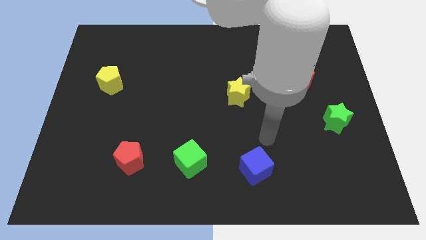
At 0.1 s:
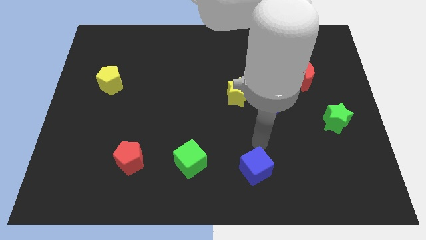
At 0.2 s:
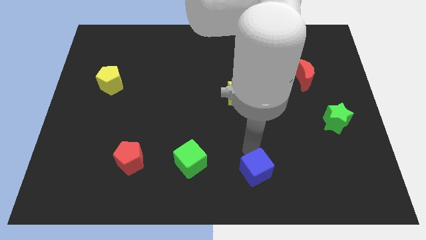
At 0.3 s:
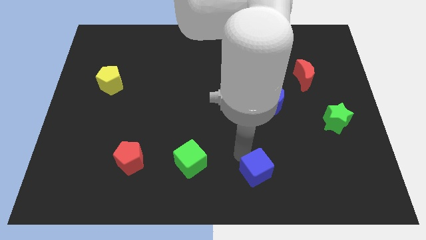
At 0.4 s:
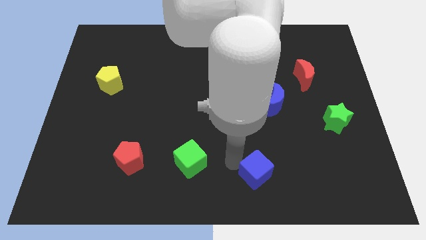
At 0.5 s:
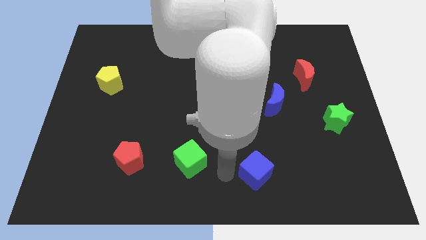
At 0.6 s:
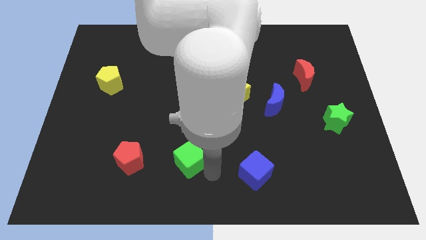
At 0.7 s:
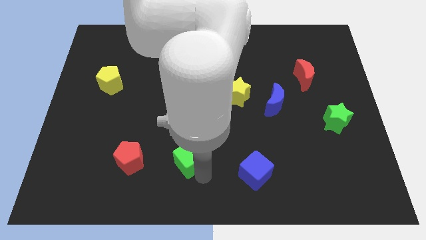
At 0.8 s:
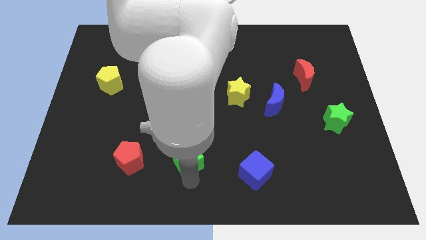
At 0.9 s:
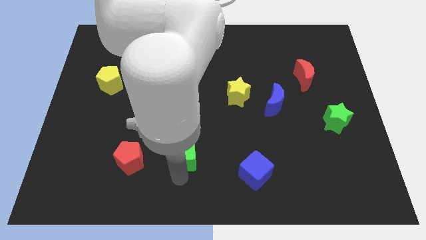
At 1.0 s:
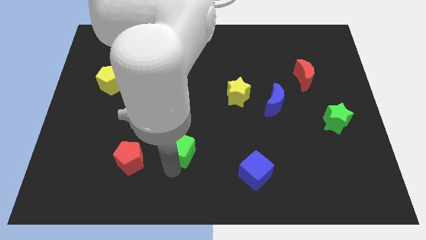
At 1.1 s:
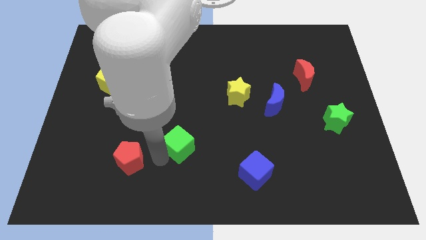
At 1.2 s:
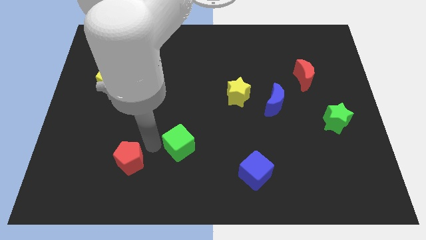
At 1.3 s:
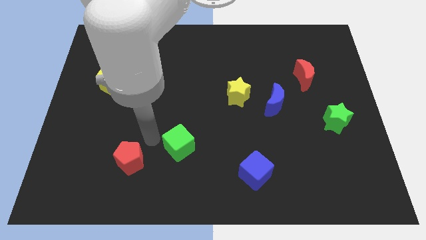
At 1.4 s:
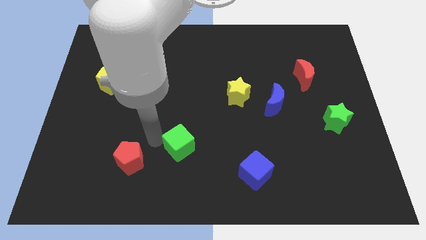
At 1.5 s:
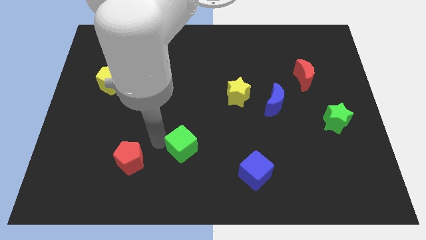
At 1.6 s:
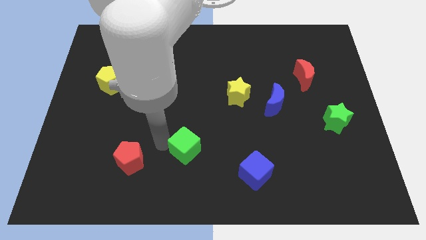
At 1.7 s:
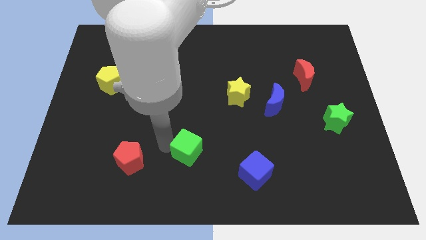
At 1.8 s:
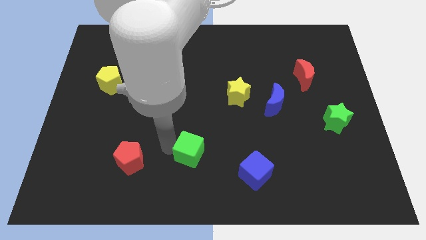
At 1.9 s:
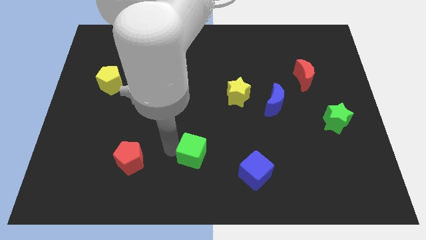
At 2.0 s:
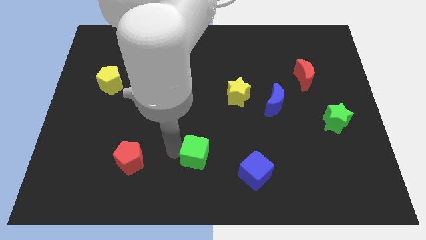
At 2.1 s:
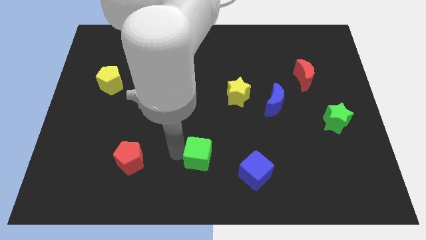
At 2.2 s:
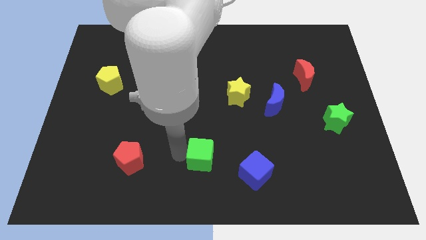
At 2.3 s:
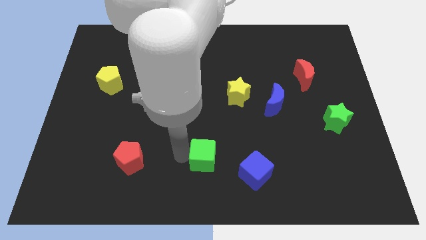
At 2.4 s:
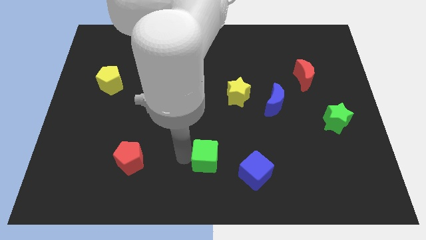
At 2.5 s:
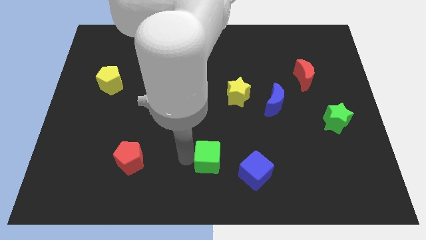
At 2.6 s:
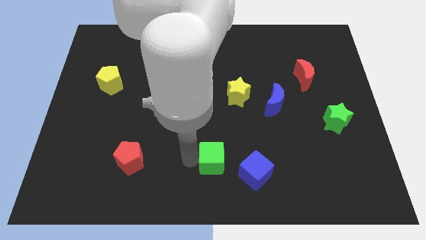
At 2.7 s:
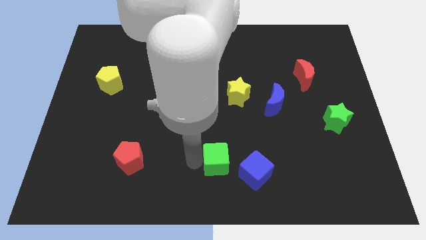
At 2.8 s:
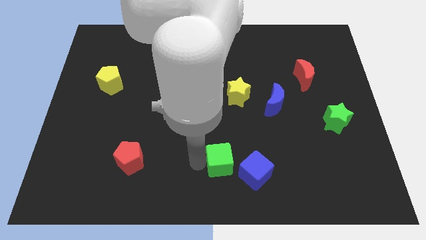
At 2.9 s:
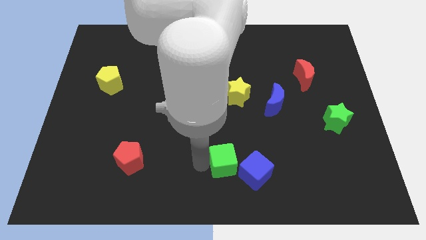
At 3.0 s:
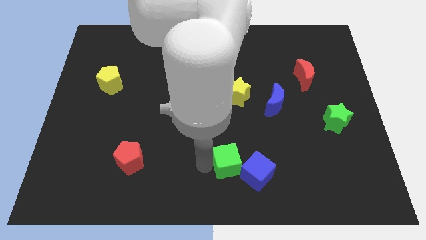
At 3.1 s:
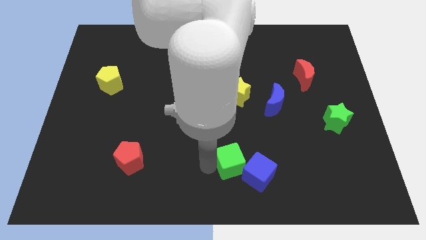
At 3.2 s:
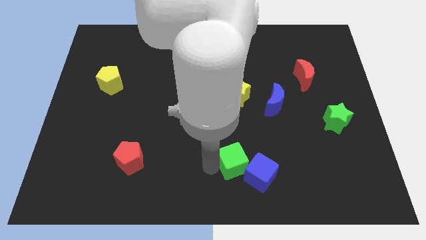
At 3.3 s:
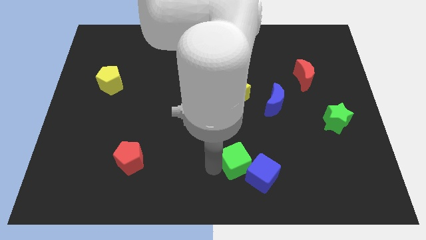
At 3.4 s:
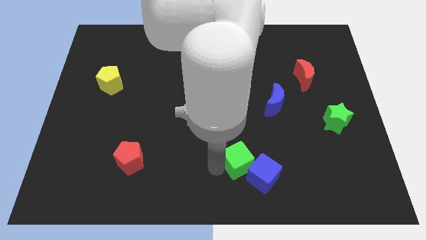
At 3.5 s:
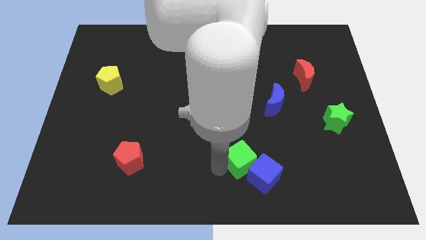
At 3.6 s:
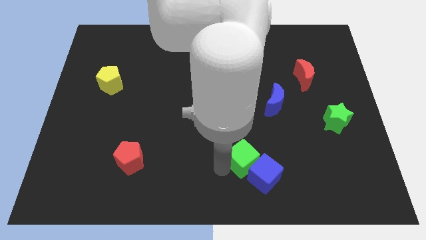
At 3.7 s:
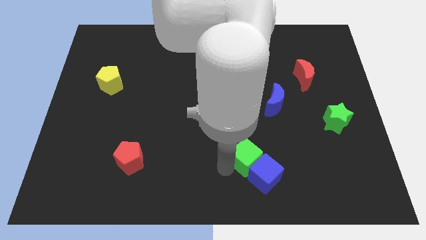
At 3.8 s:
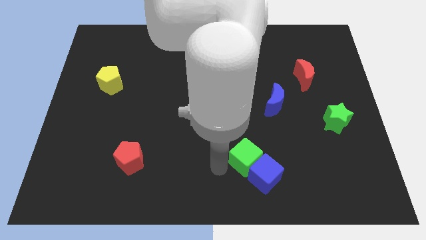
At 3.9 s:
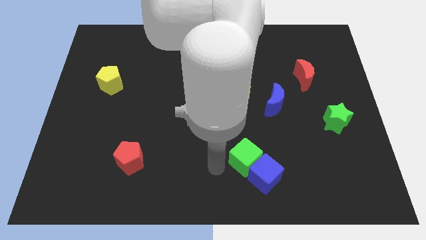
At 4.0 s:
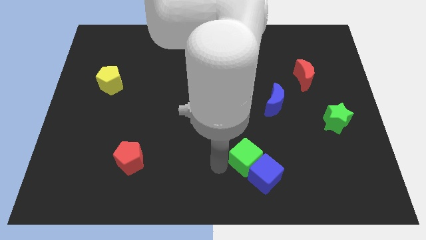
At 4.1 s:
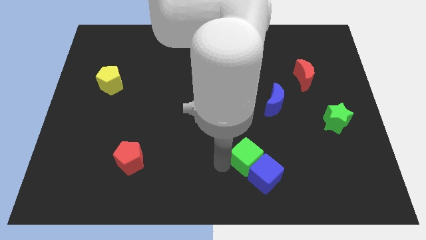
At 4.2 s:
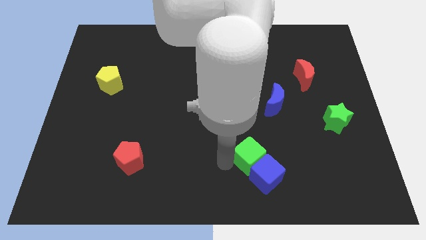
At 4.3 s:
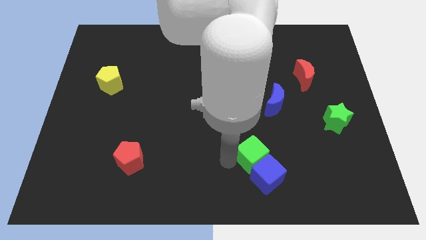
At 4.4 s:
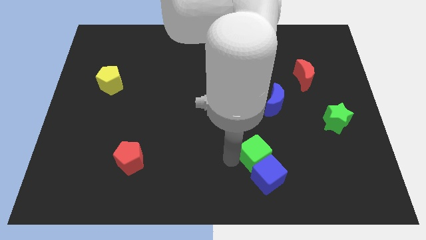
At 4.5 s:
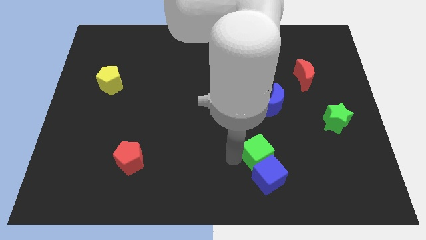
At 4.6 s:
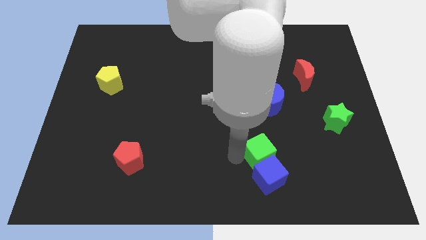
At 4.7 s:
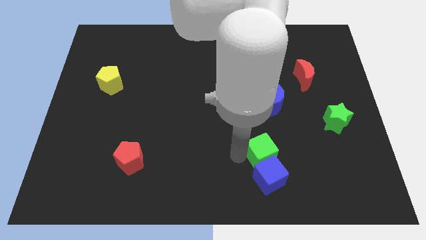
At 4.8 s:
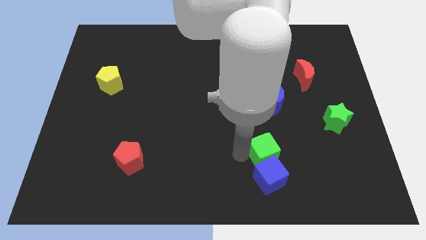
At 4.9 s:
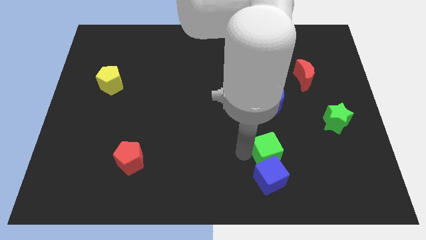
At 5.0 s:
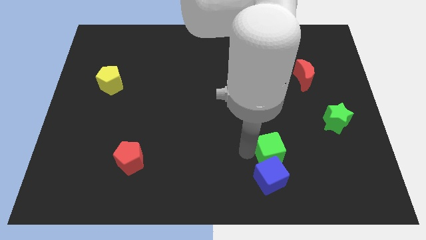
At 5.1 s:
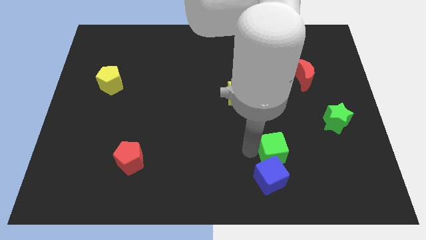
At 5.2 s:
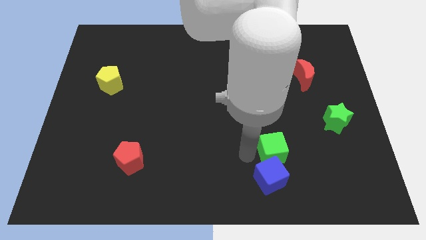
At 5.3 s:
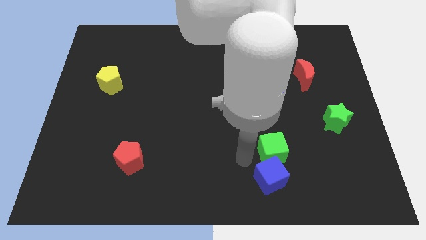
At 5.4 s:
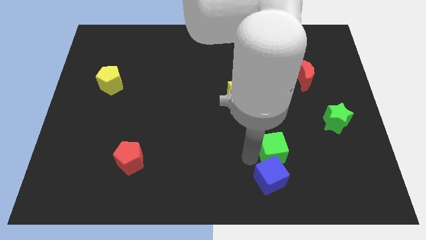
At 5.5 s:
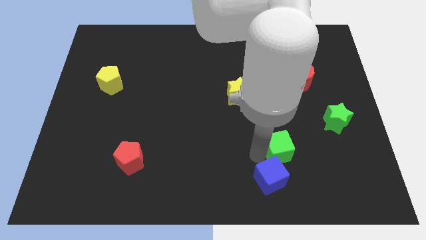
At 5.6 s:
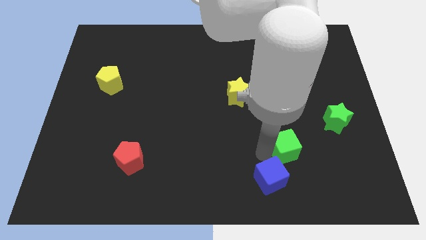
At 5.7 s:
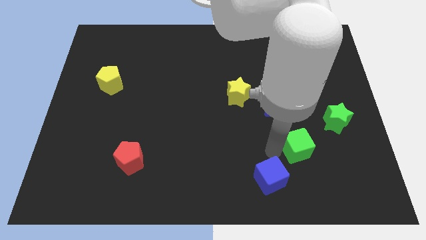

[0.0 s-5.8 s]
slide the green cube to the bottom left of the green star
